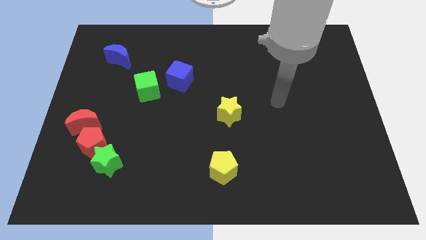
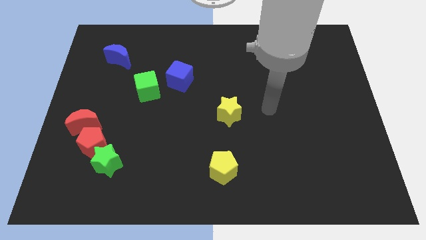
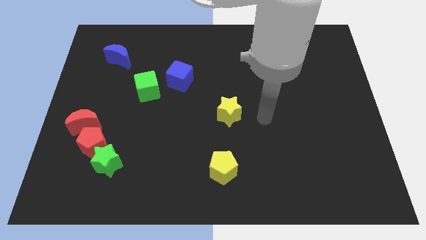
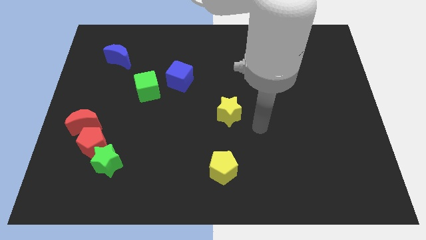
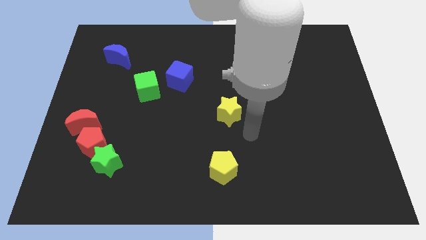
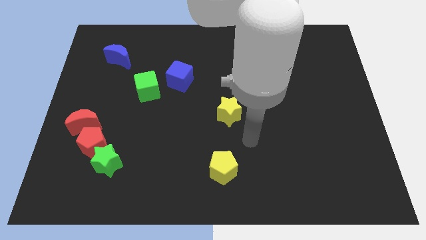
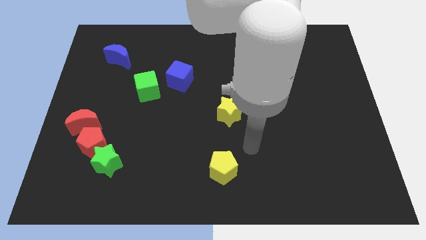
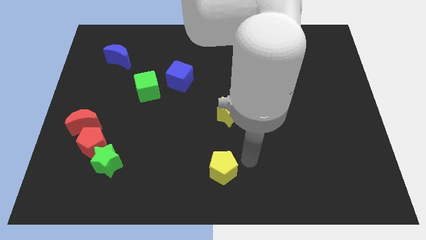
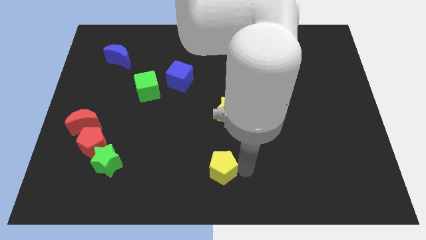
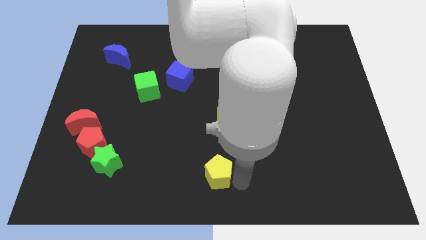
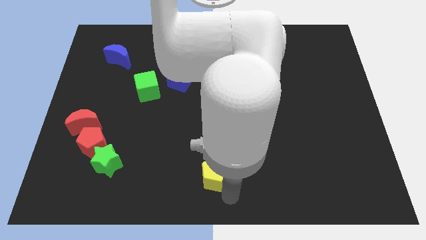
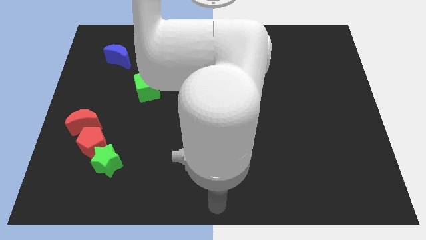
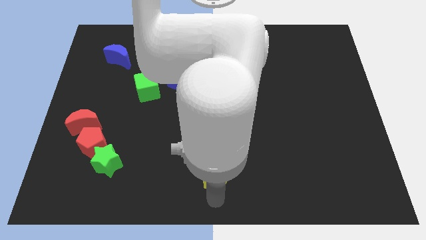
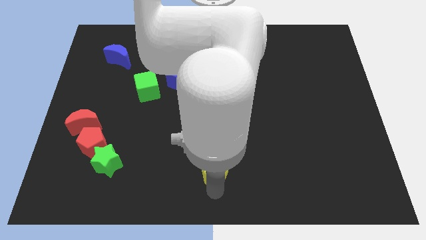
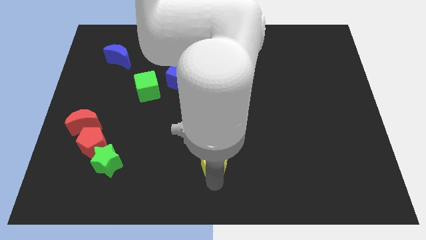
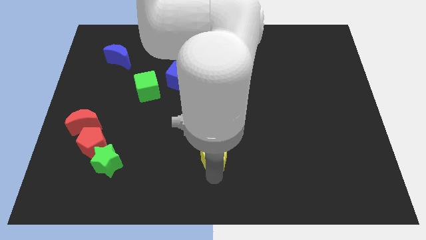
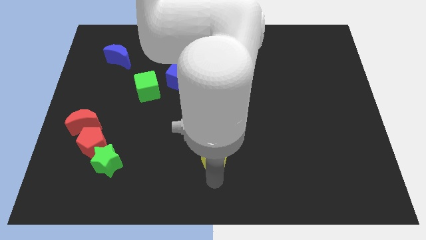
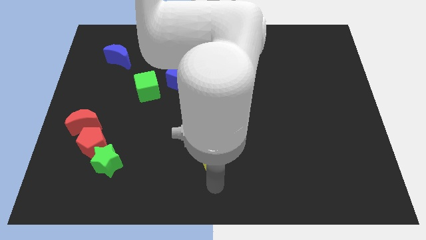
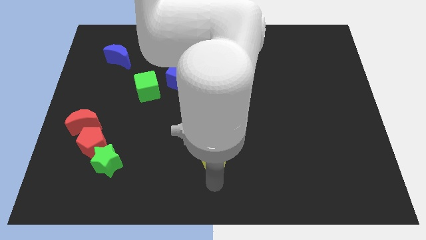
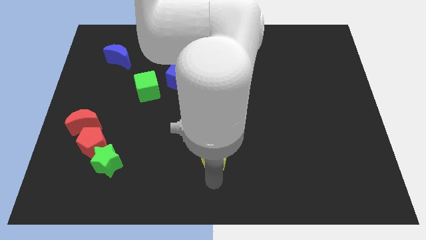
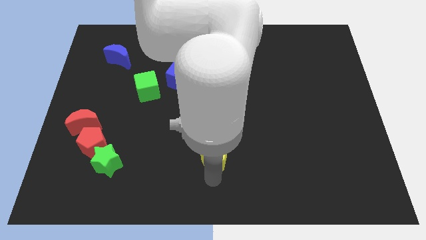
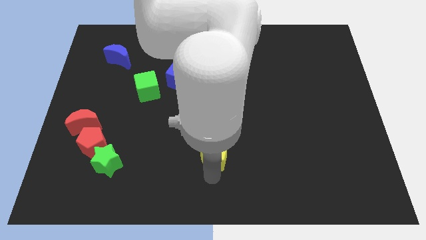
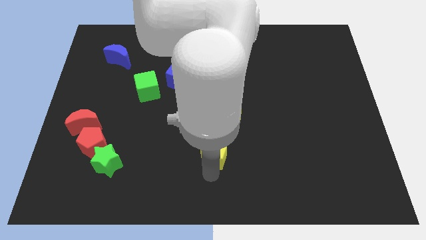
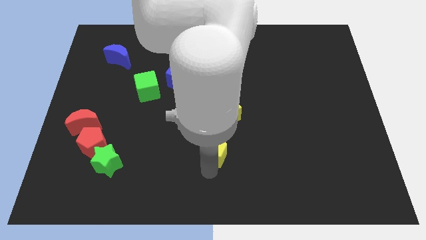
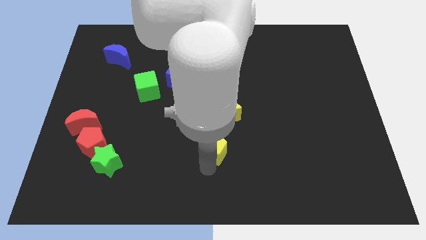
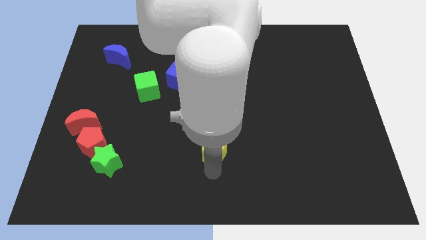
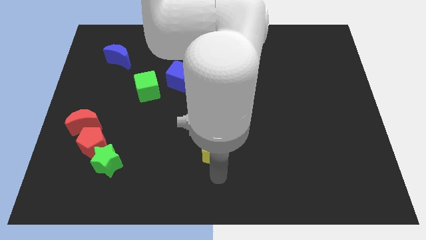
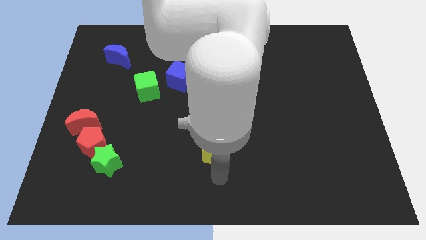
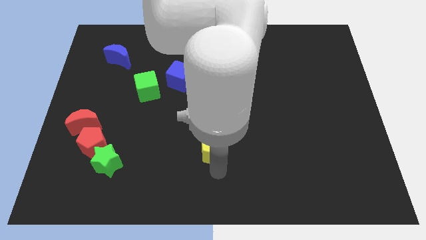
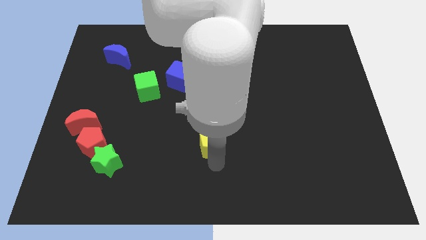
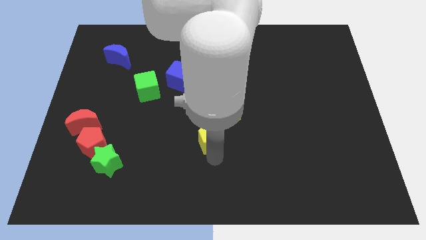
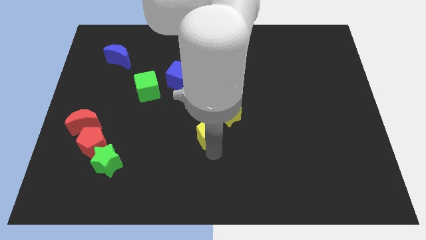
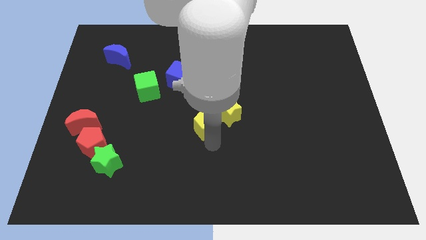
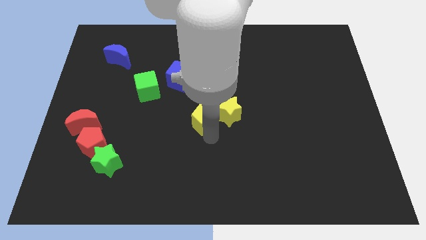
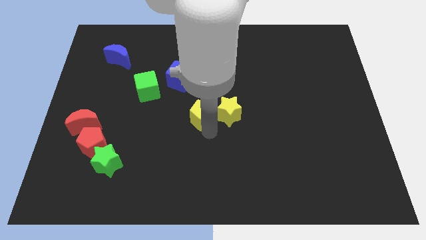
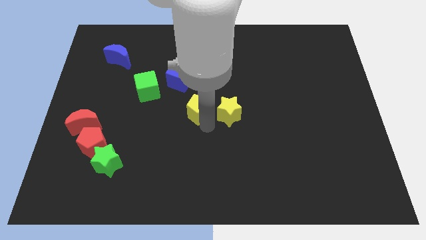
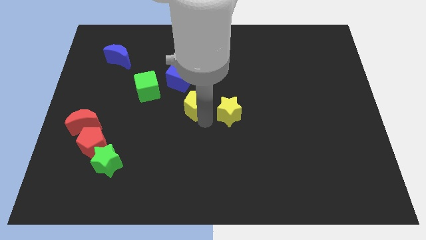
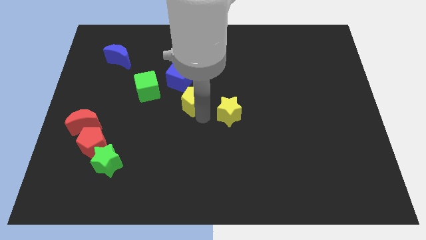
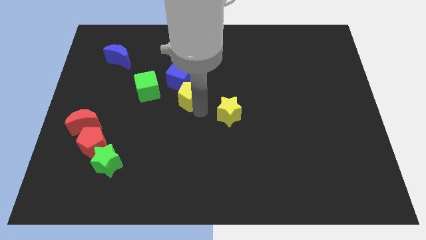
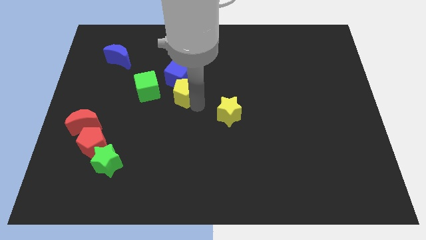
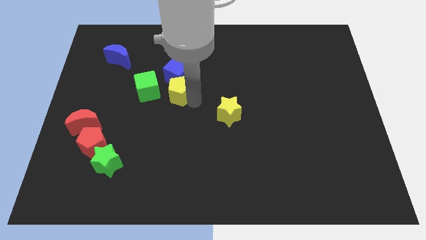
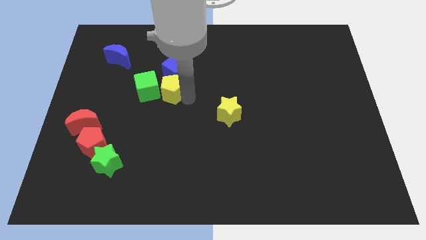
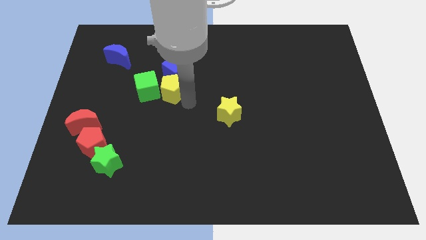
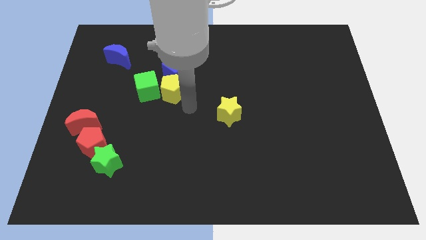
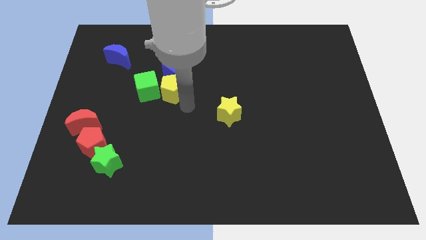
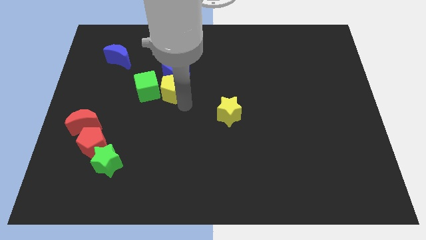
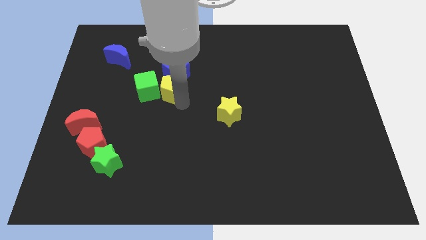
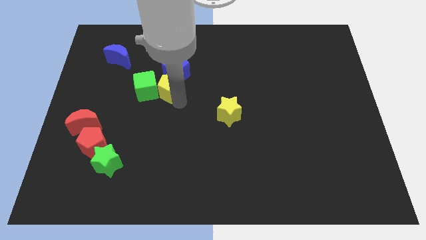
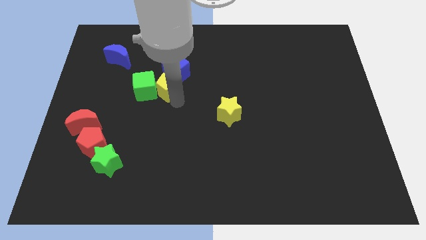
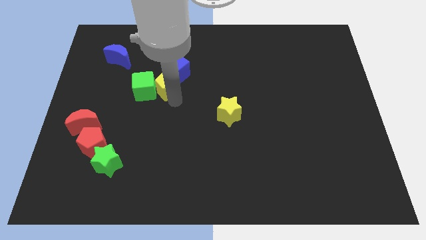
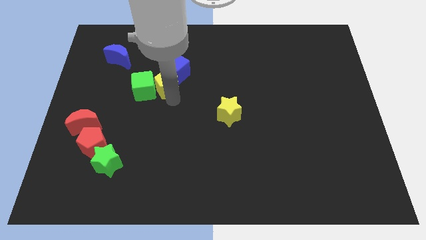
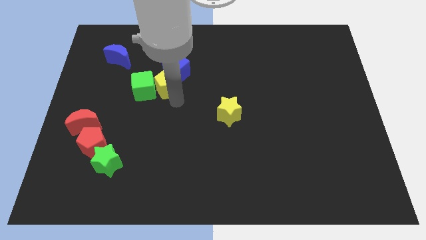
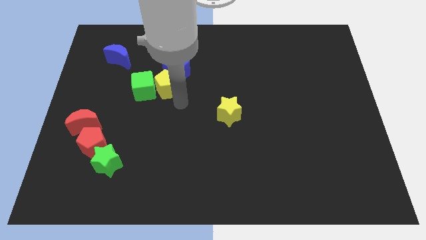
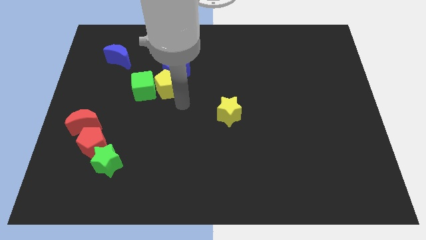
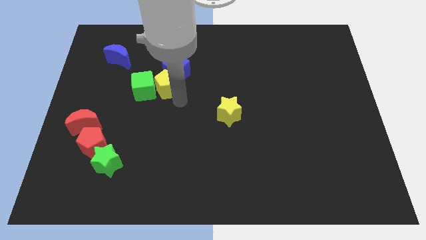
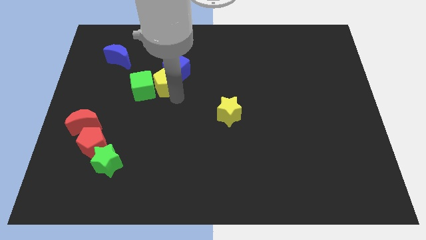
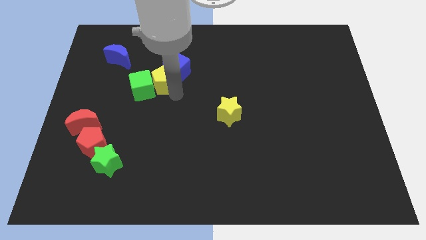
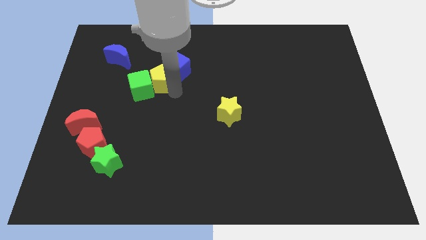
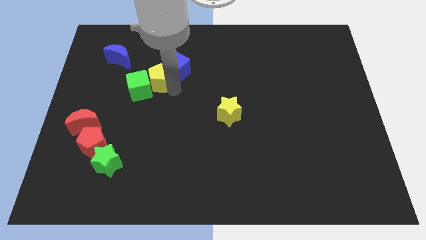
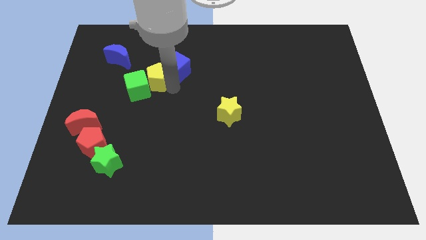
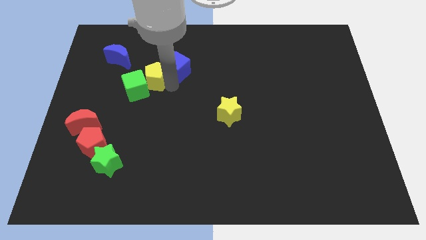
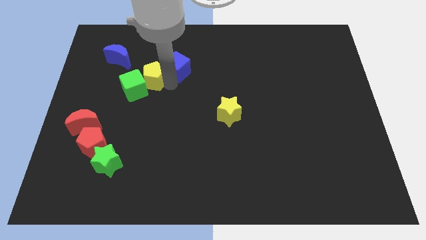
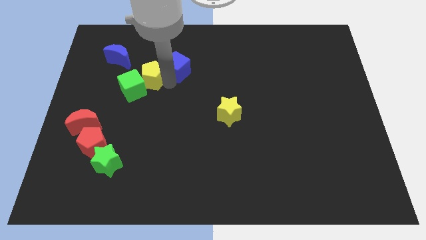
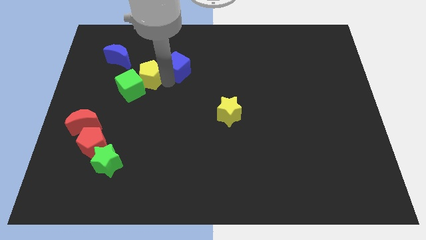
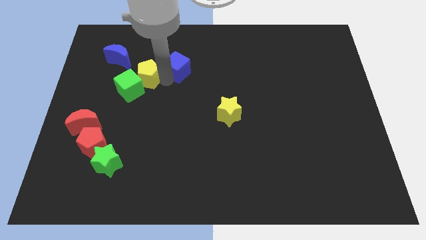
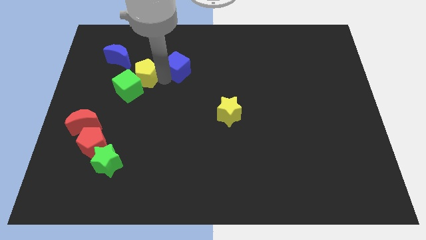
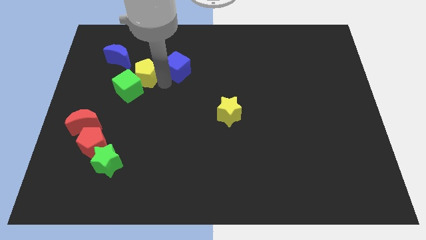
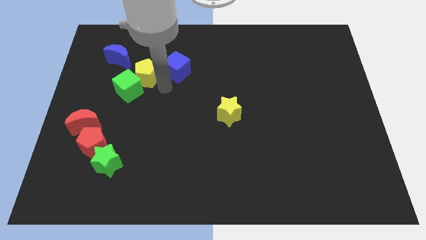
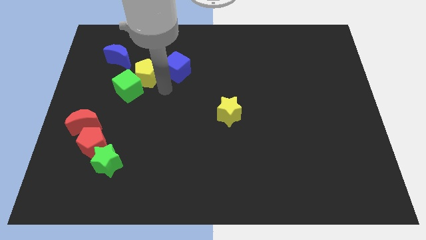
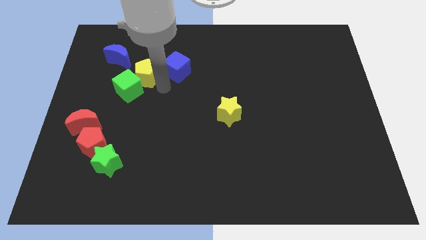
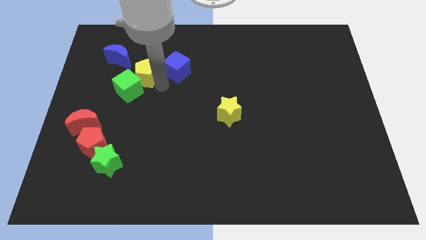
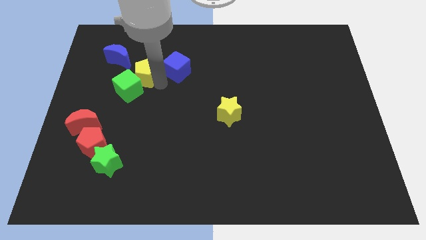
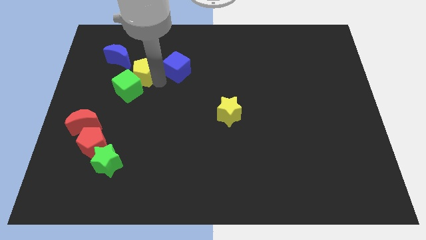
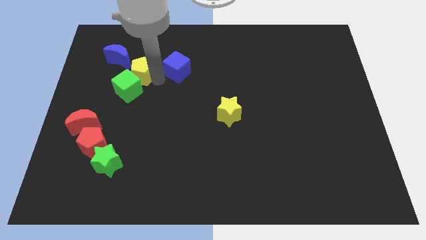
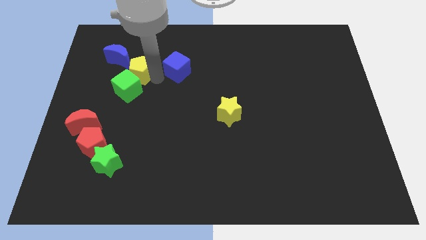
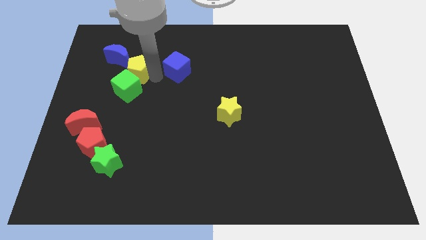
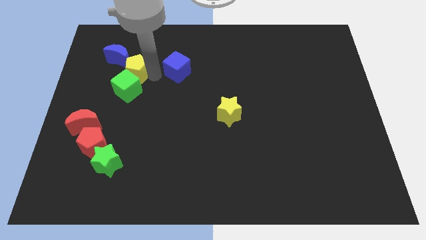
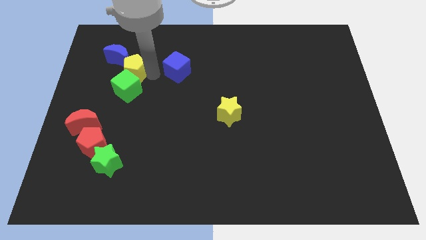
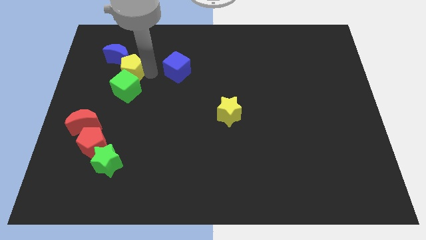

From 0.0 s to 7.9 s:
slide the yellow pentagon next to the blue moon
